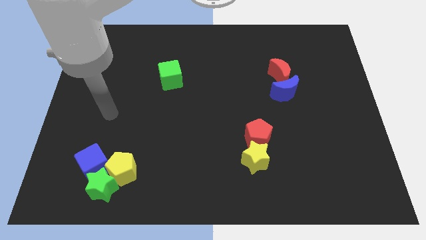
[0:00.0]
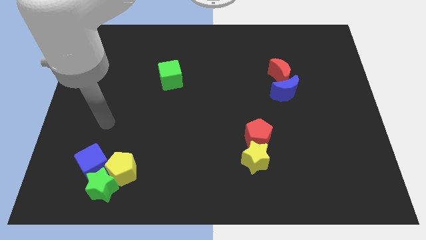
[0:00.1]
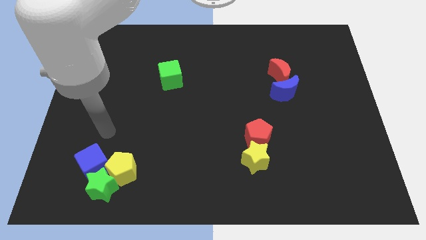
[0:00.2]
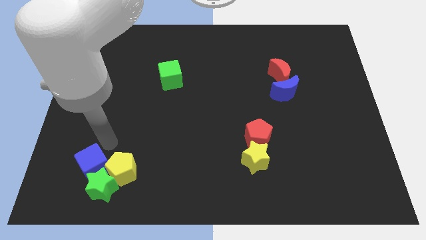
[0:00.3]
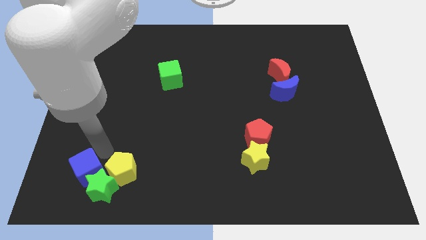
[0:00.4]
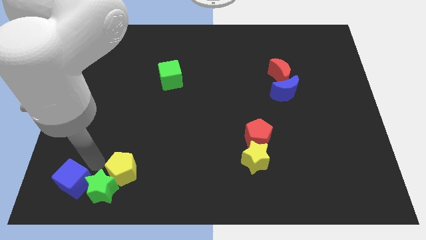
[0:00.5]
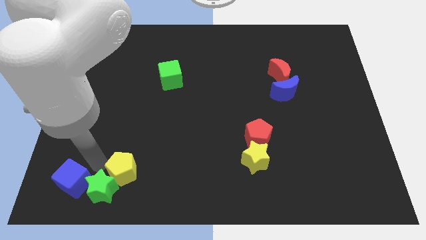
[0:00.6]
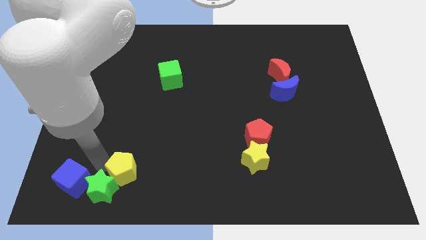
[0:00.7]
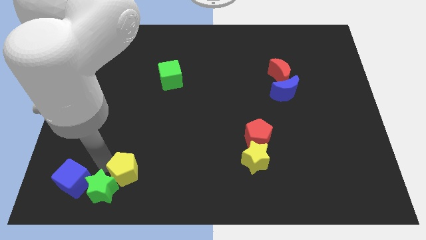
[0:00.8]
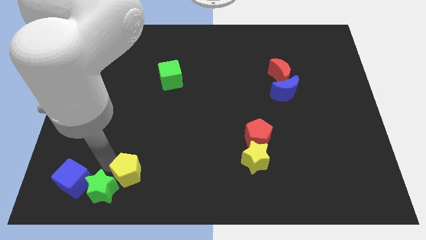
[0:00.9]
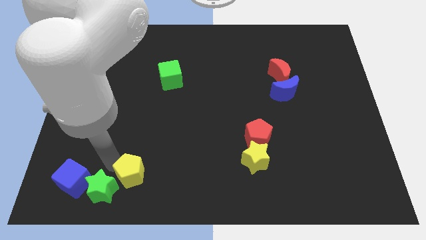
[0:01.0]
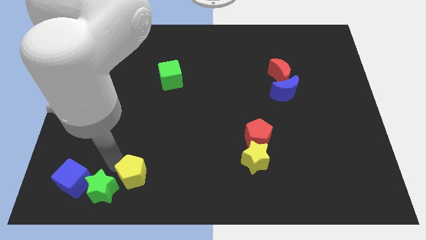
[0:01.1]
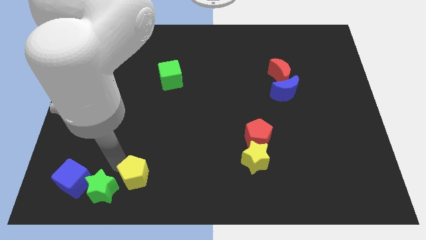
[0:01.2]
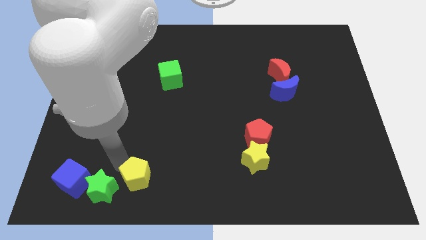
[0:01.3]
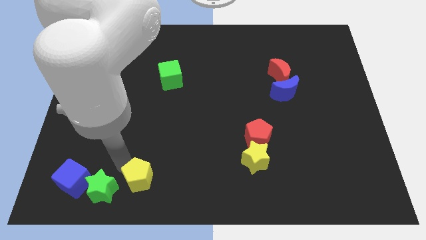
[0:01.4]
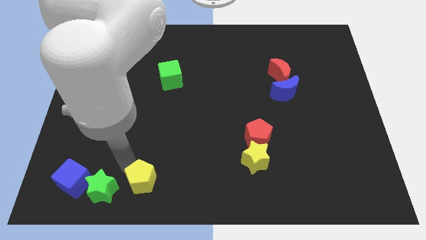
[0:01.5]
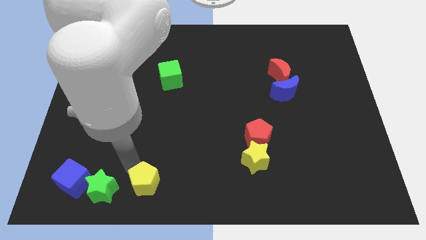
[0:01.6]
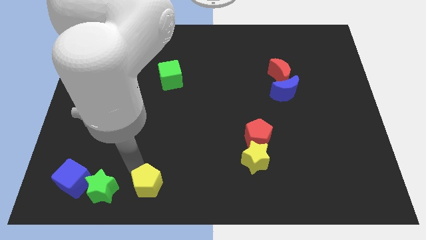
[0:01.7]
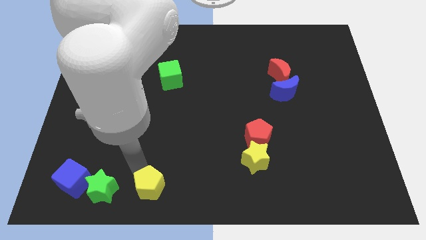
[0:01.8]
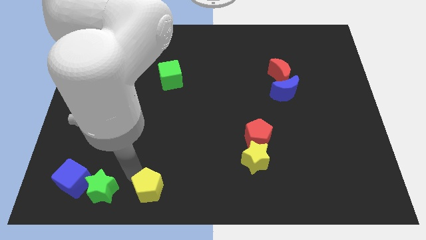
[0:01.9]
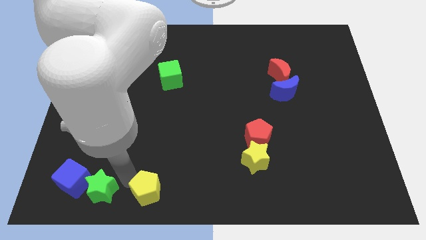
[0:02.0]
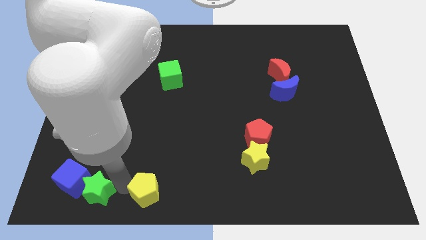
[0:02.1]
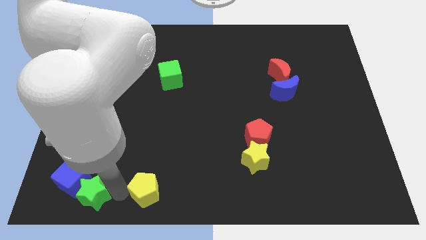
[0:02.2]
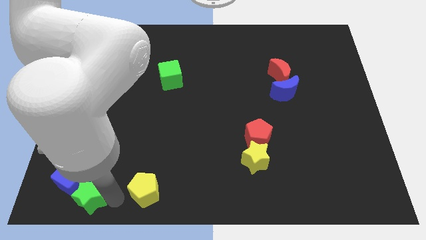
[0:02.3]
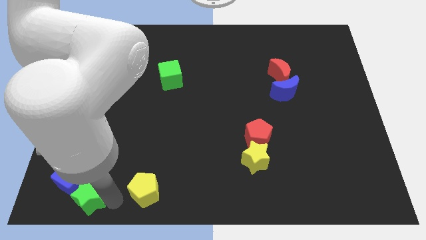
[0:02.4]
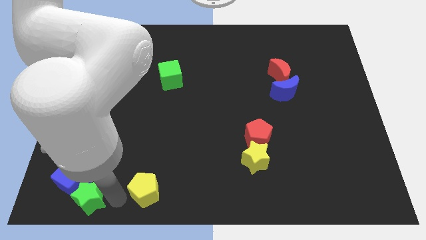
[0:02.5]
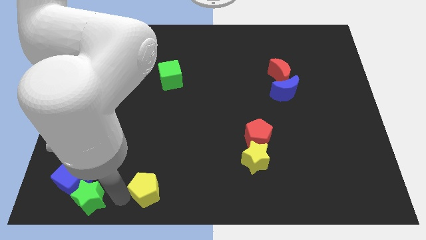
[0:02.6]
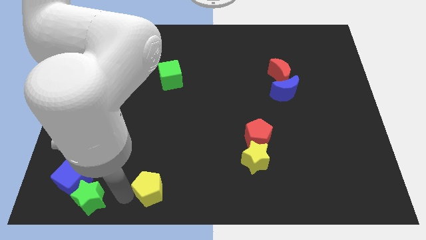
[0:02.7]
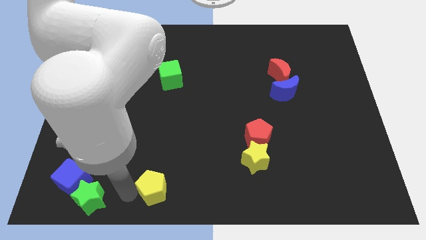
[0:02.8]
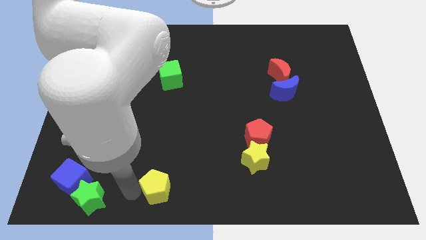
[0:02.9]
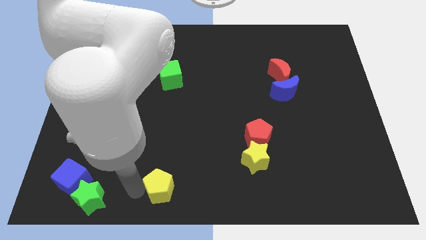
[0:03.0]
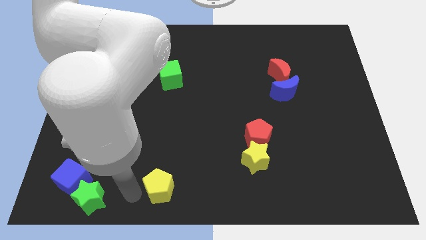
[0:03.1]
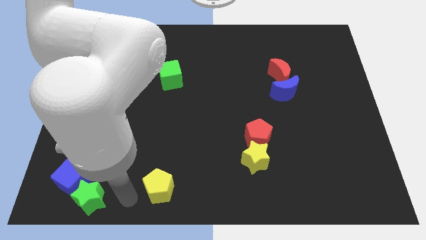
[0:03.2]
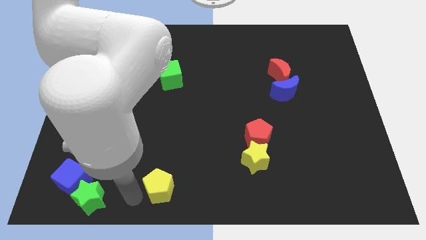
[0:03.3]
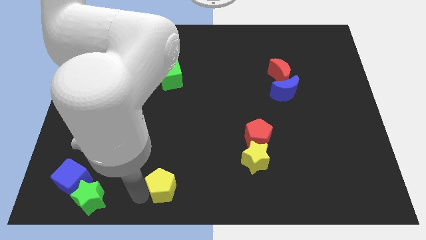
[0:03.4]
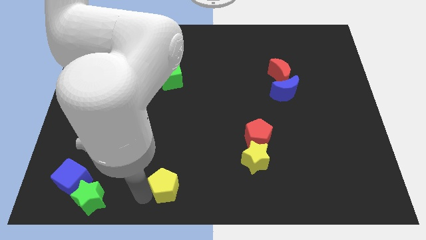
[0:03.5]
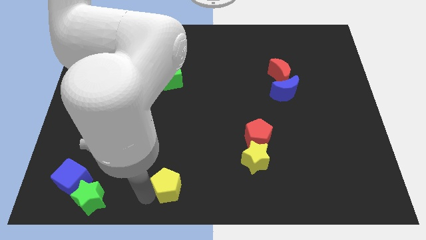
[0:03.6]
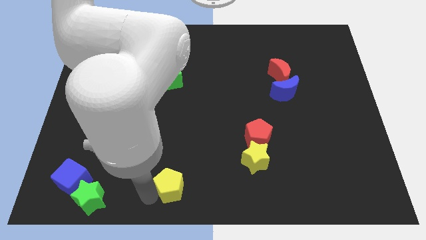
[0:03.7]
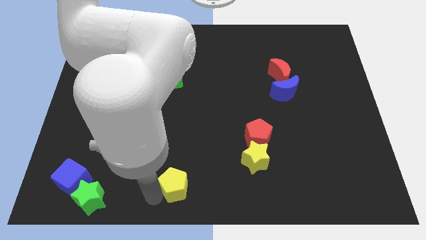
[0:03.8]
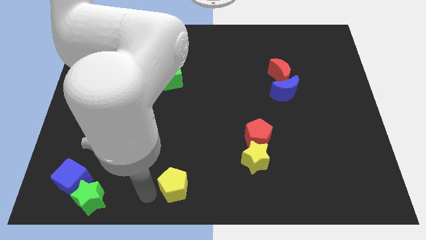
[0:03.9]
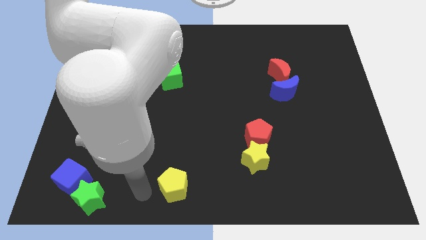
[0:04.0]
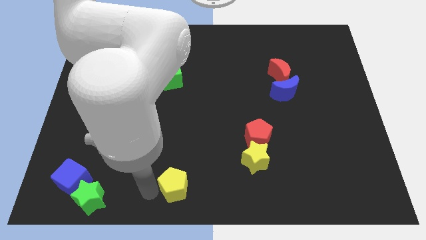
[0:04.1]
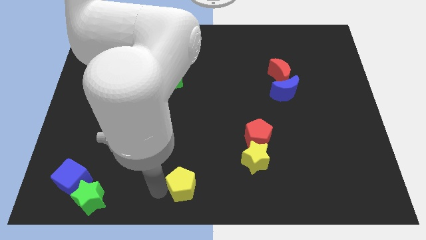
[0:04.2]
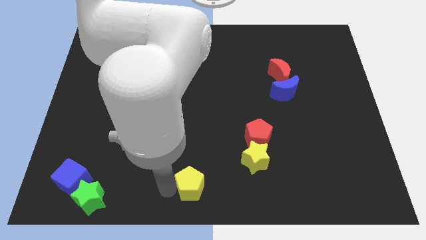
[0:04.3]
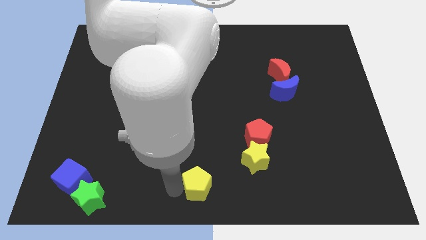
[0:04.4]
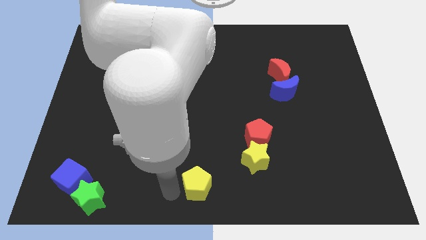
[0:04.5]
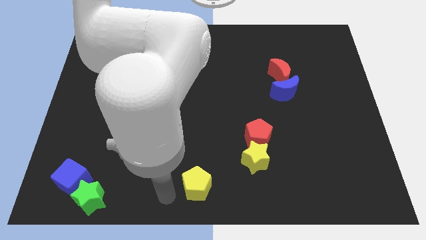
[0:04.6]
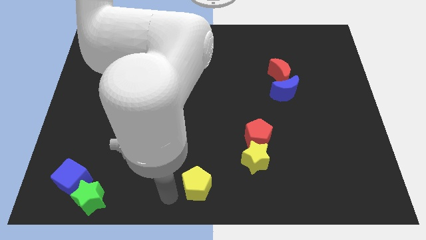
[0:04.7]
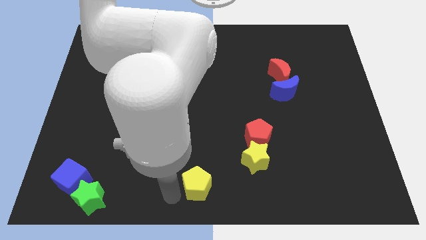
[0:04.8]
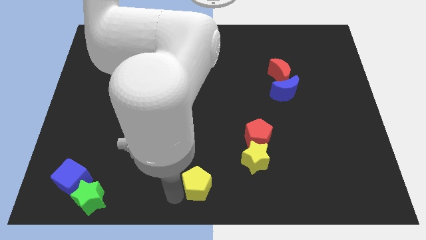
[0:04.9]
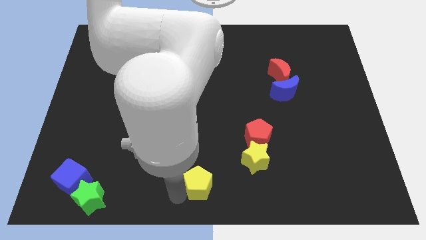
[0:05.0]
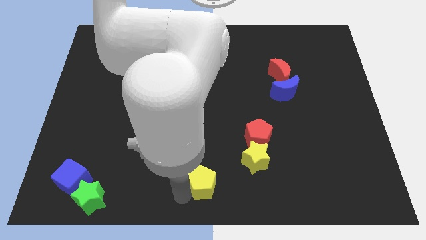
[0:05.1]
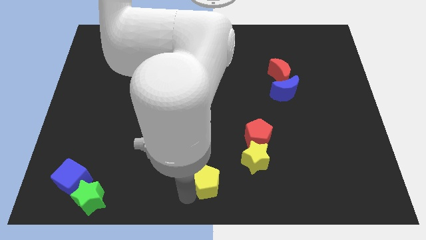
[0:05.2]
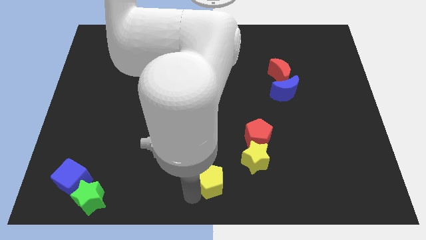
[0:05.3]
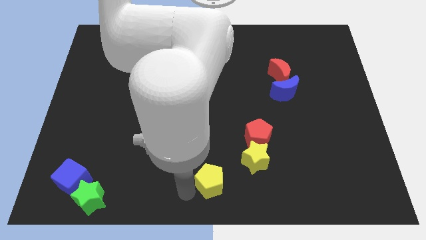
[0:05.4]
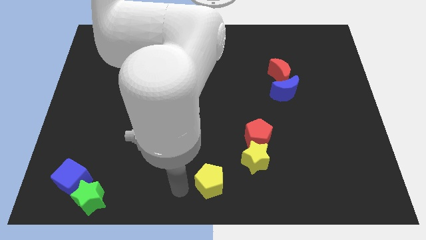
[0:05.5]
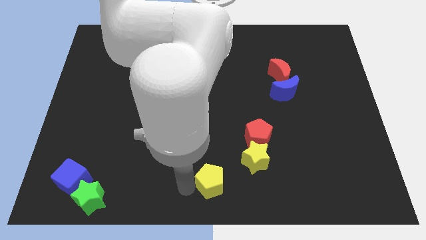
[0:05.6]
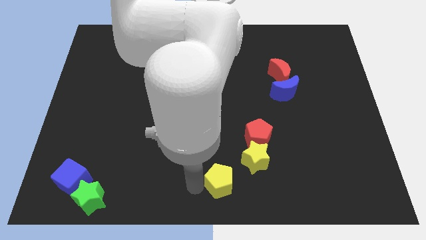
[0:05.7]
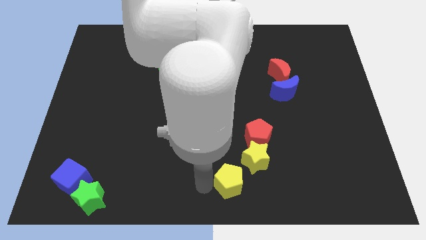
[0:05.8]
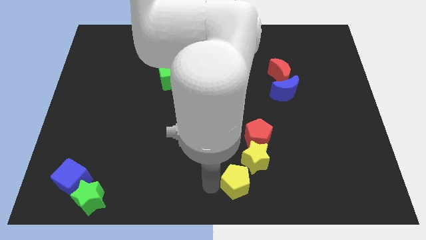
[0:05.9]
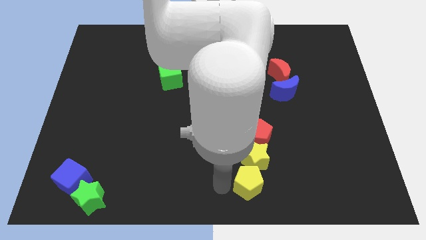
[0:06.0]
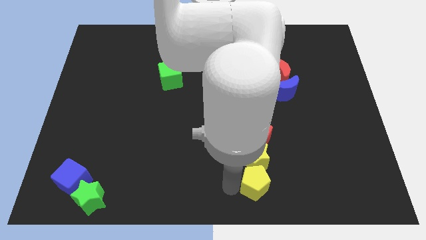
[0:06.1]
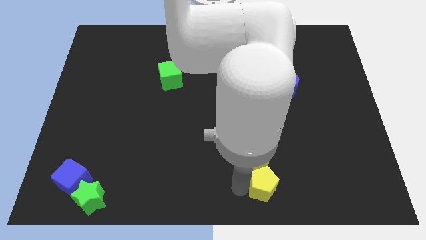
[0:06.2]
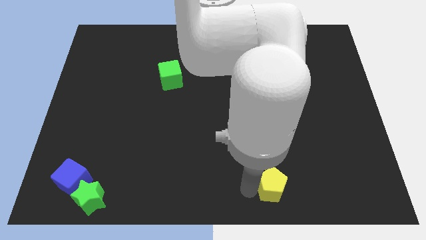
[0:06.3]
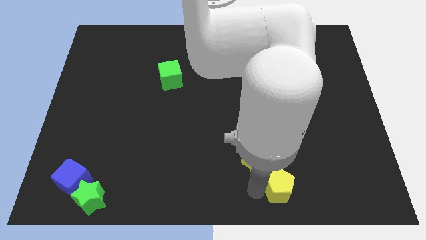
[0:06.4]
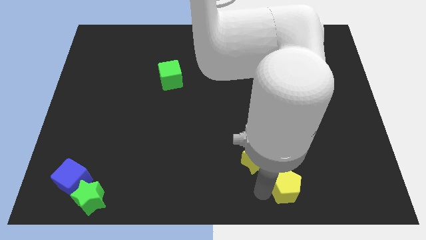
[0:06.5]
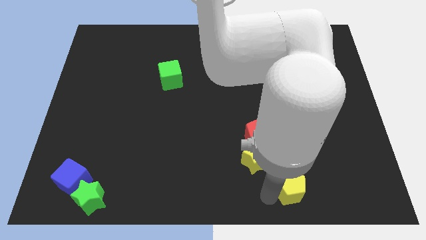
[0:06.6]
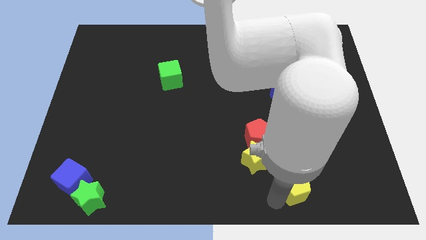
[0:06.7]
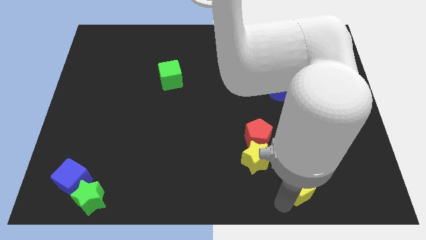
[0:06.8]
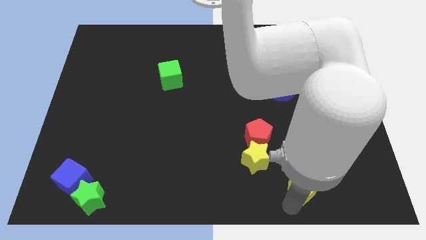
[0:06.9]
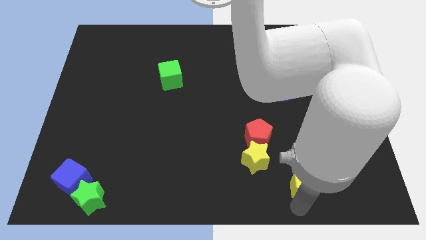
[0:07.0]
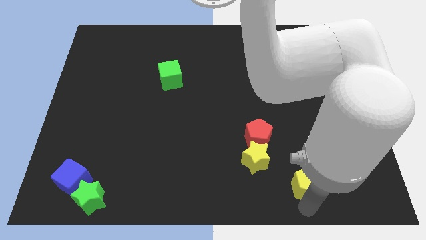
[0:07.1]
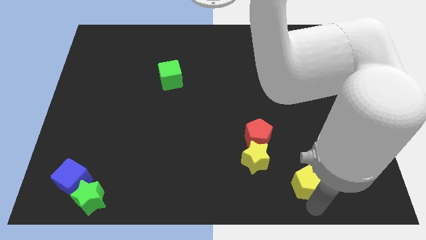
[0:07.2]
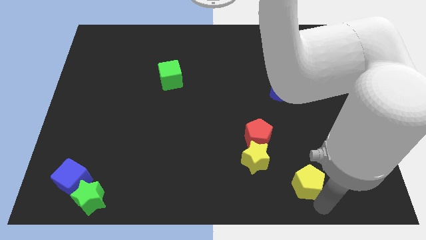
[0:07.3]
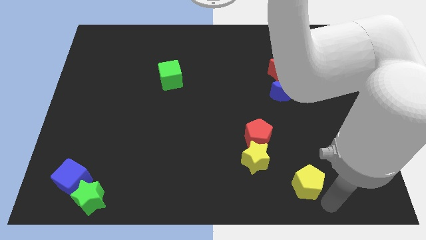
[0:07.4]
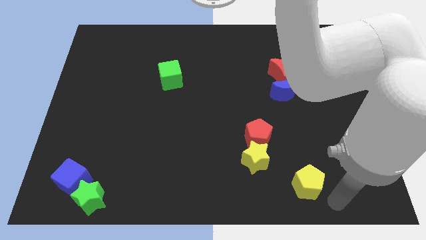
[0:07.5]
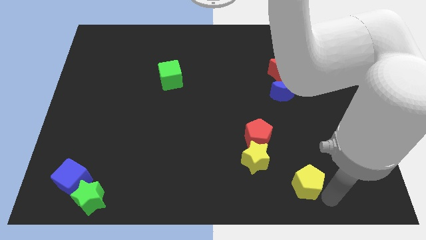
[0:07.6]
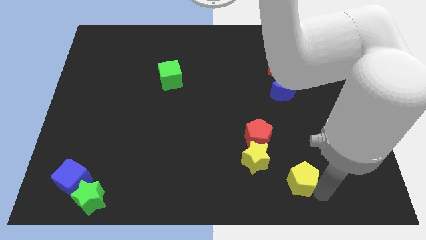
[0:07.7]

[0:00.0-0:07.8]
slide the yellow pentagon to the right of the yellow star
